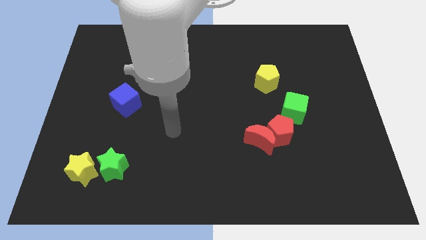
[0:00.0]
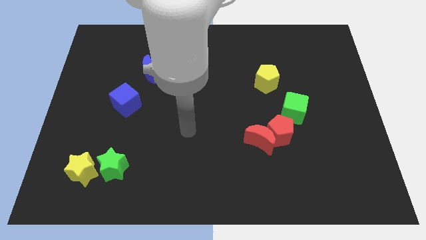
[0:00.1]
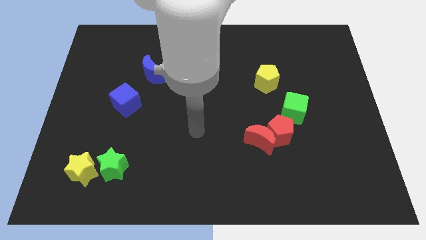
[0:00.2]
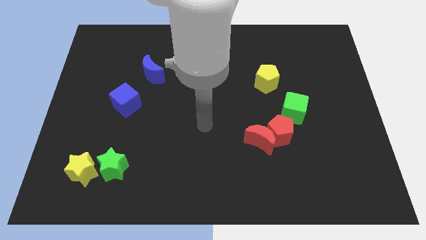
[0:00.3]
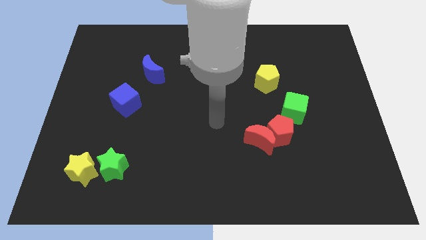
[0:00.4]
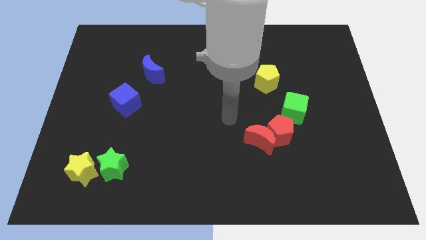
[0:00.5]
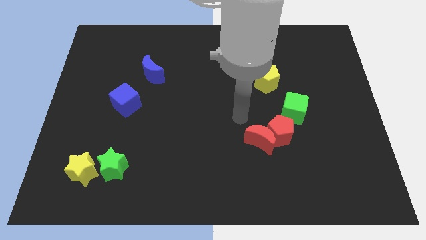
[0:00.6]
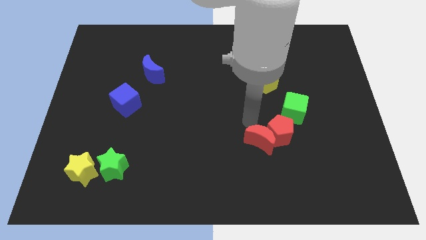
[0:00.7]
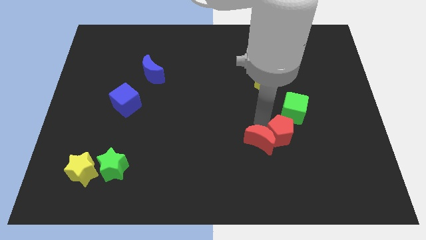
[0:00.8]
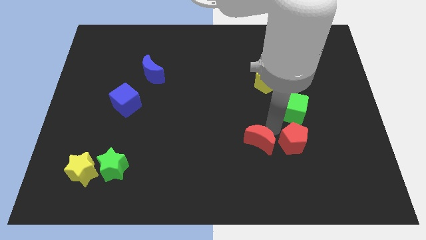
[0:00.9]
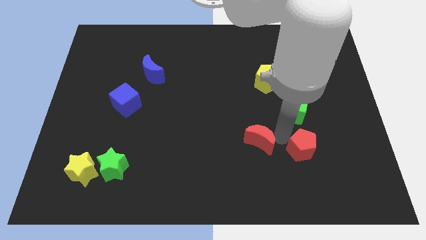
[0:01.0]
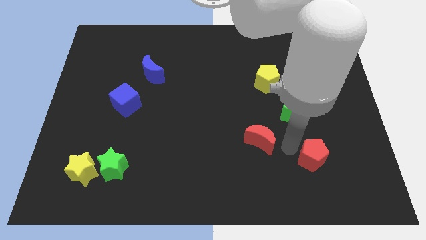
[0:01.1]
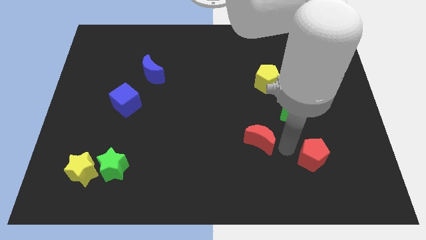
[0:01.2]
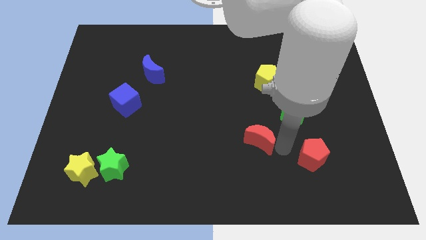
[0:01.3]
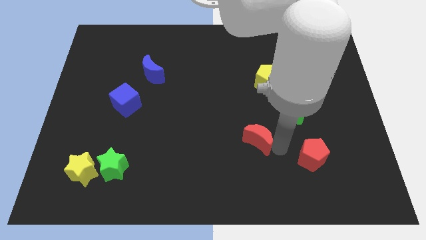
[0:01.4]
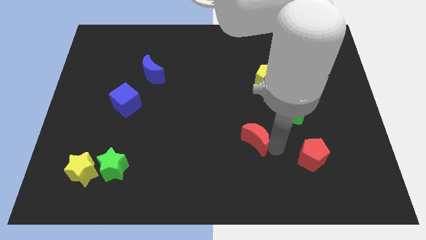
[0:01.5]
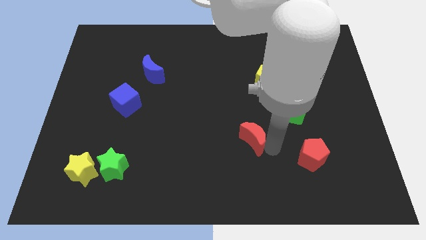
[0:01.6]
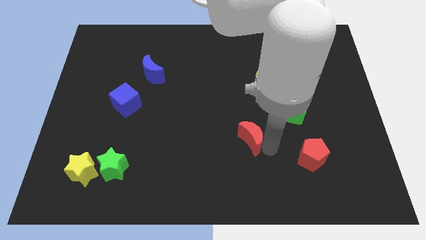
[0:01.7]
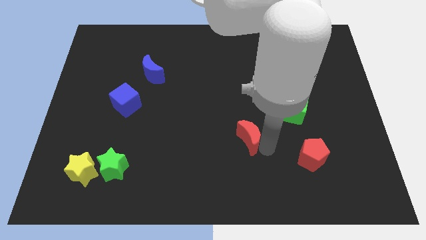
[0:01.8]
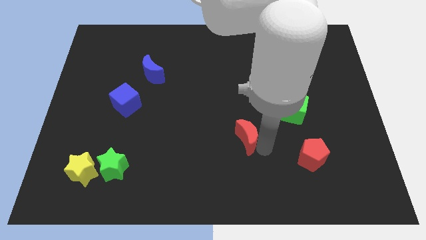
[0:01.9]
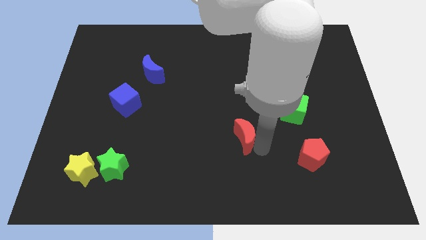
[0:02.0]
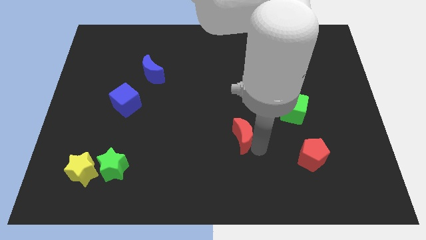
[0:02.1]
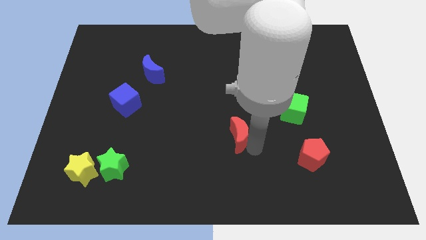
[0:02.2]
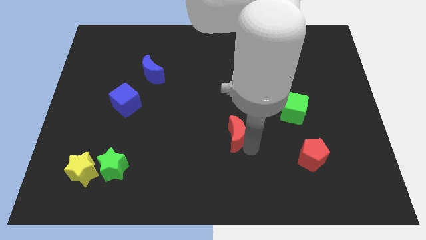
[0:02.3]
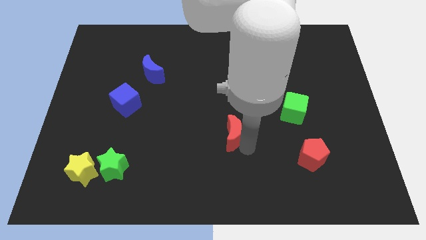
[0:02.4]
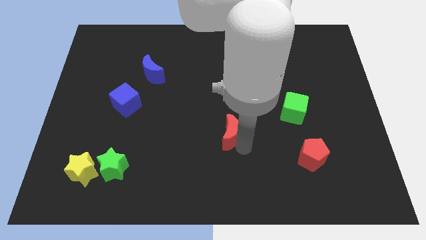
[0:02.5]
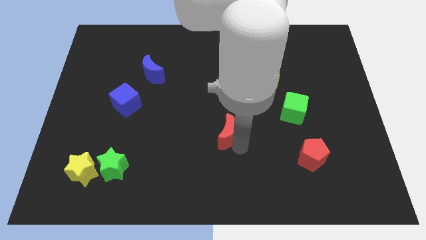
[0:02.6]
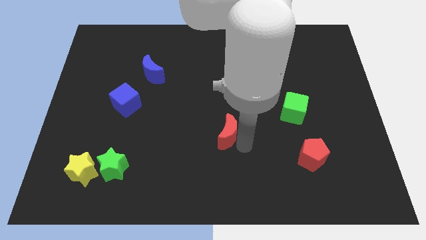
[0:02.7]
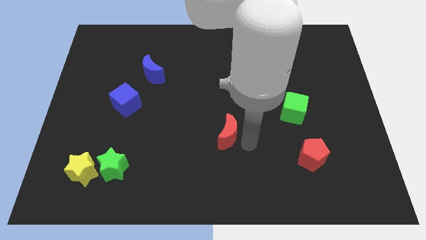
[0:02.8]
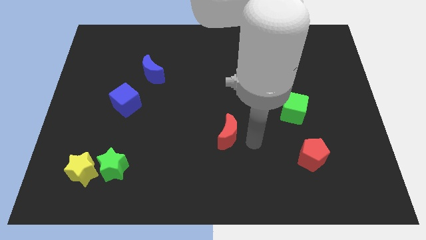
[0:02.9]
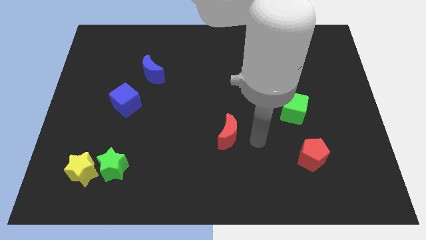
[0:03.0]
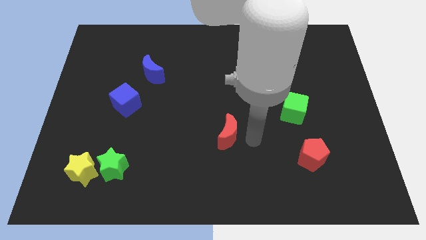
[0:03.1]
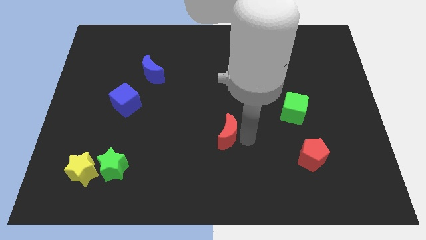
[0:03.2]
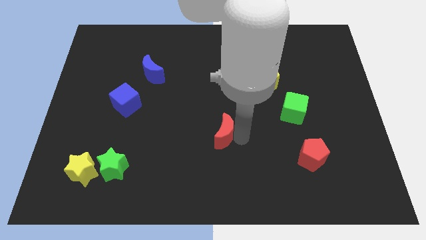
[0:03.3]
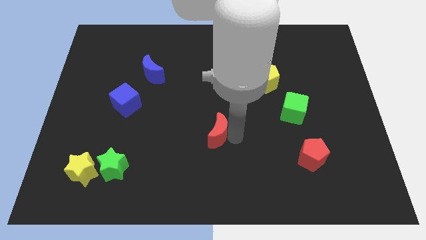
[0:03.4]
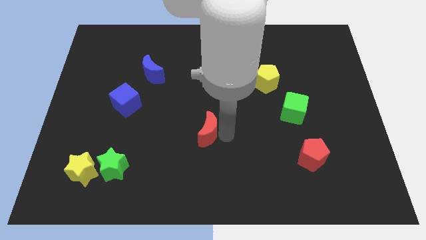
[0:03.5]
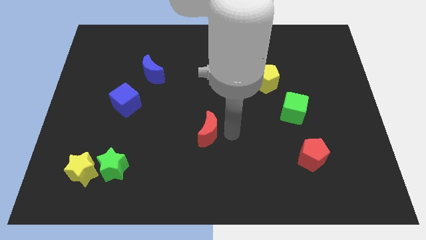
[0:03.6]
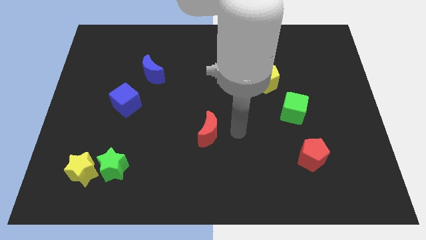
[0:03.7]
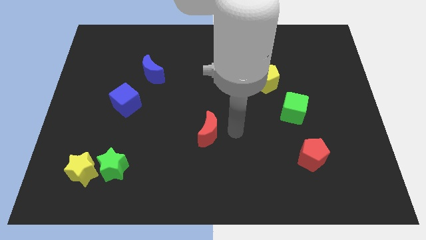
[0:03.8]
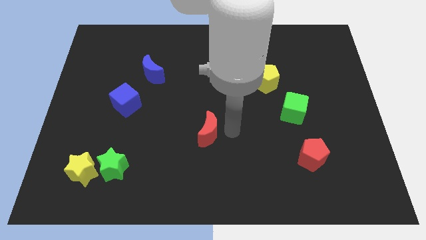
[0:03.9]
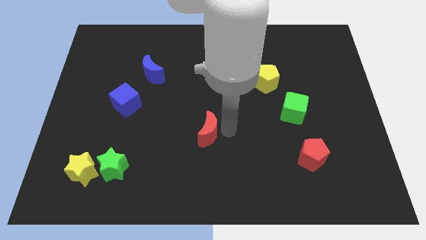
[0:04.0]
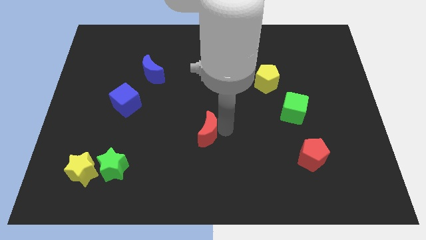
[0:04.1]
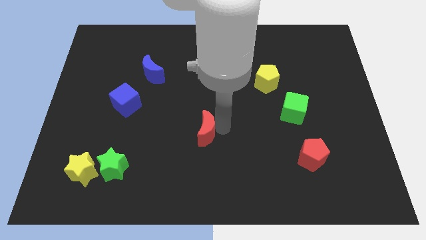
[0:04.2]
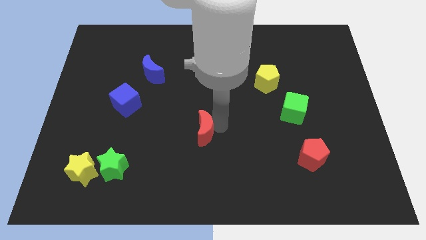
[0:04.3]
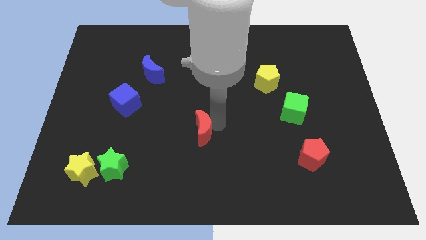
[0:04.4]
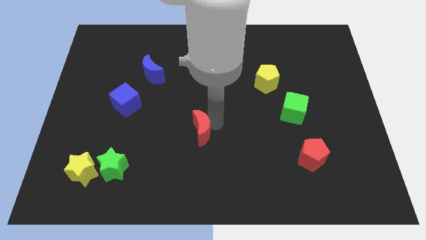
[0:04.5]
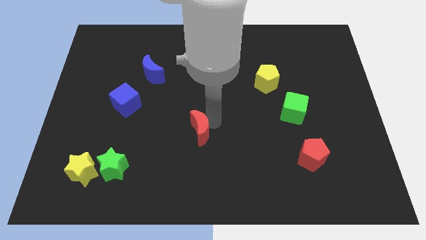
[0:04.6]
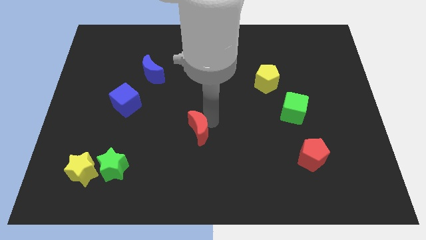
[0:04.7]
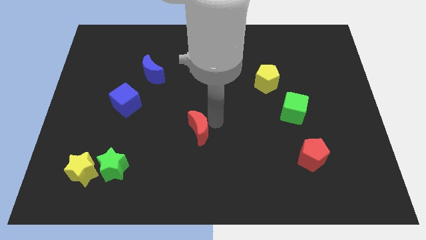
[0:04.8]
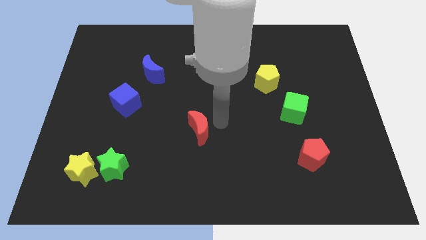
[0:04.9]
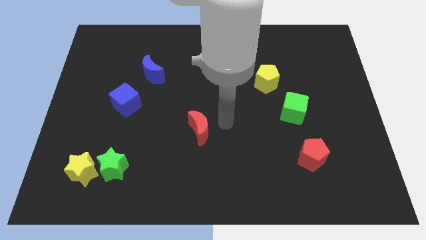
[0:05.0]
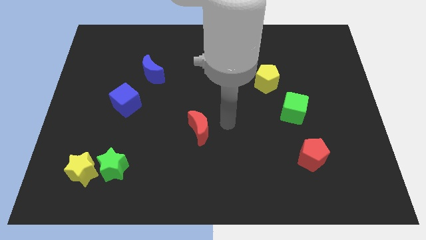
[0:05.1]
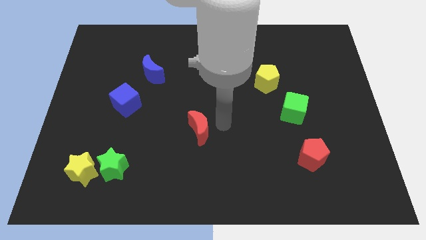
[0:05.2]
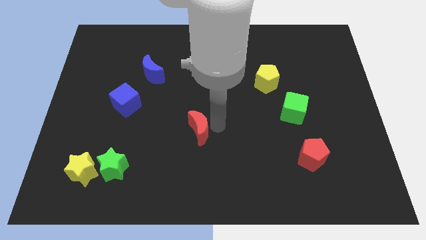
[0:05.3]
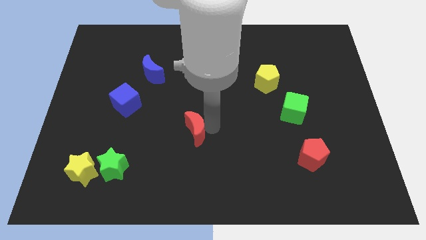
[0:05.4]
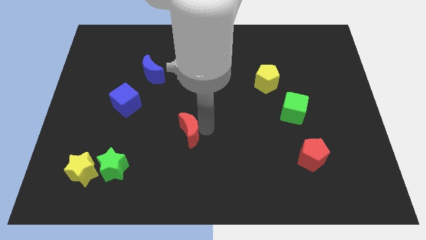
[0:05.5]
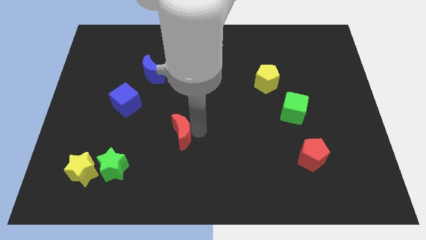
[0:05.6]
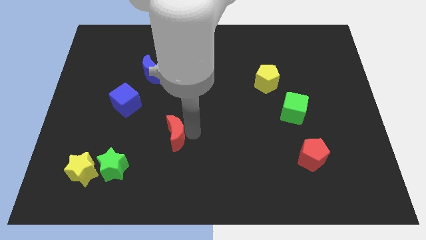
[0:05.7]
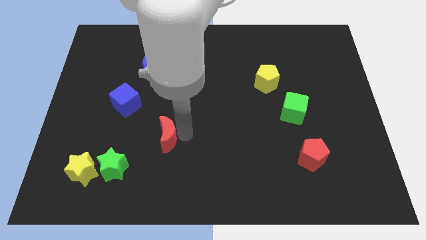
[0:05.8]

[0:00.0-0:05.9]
move the red moon to the left

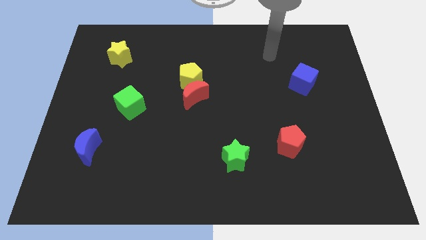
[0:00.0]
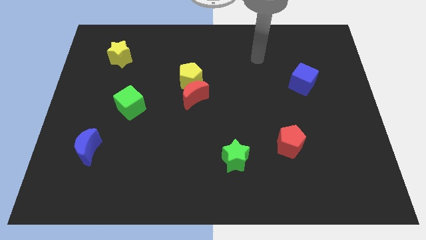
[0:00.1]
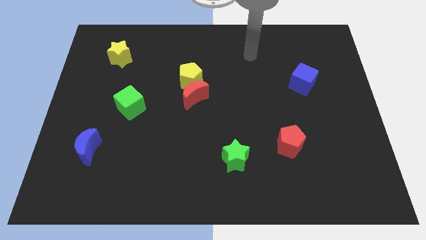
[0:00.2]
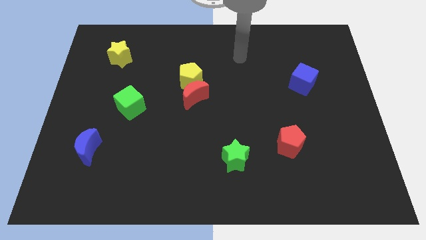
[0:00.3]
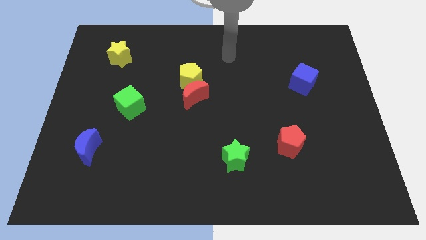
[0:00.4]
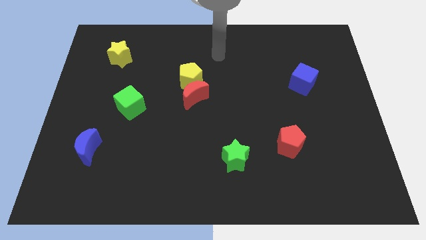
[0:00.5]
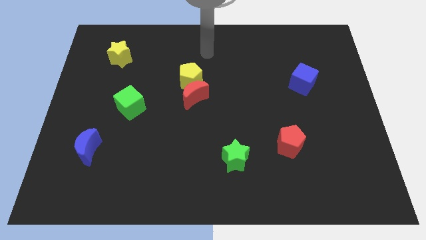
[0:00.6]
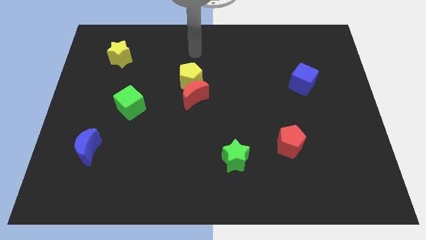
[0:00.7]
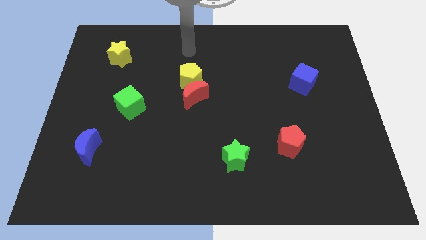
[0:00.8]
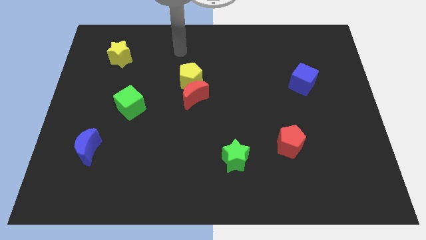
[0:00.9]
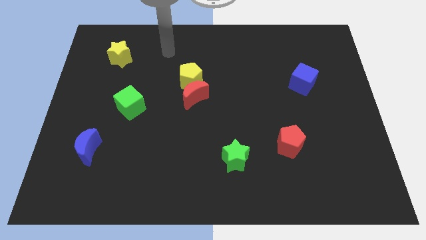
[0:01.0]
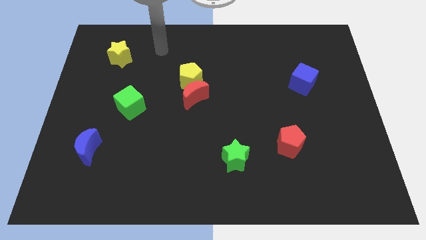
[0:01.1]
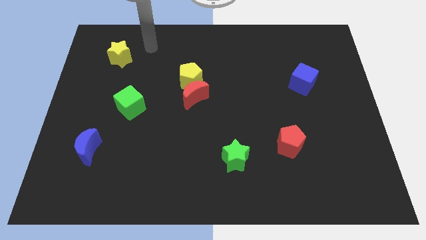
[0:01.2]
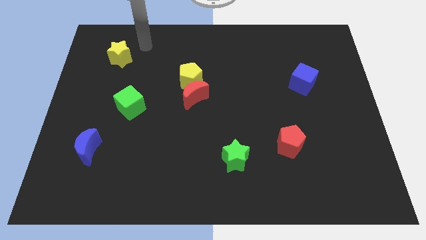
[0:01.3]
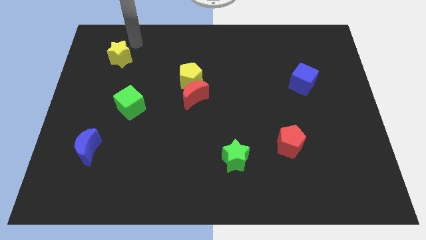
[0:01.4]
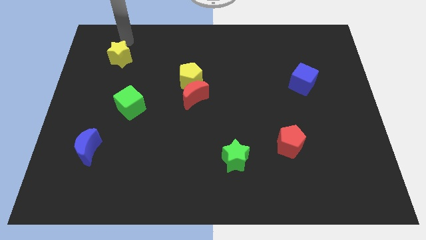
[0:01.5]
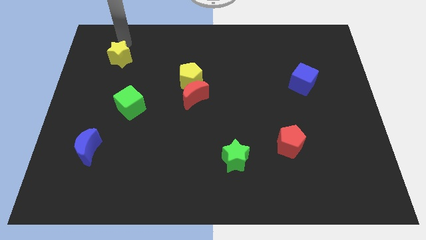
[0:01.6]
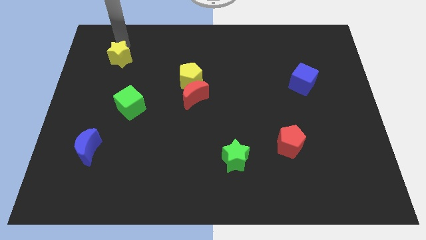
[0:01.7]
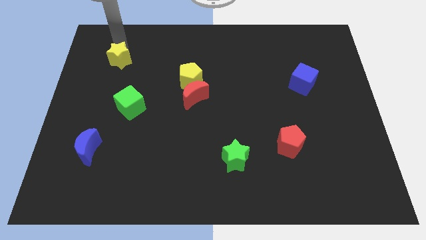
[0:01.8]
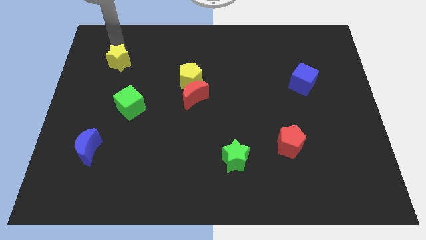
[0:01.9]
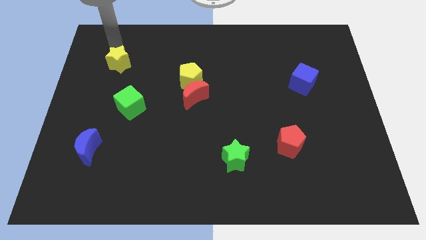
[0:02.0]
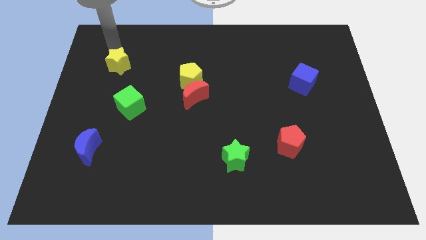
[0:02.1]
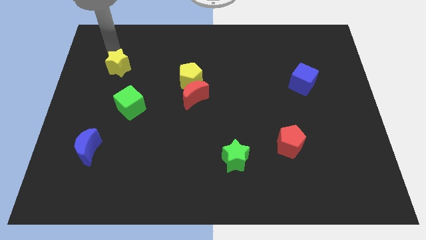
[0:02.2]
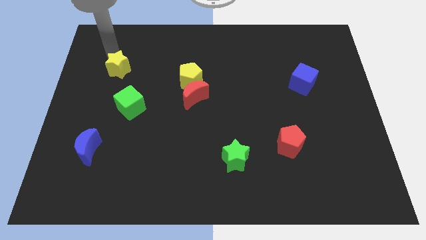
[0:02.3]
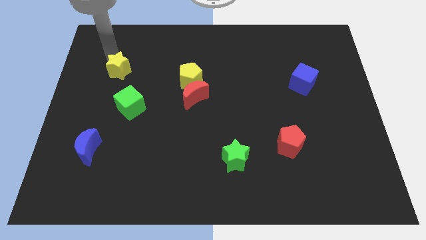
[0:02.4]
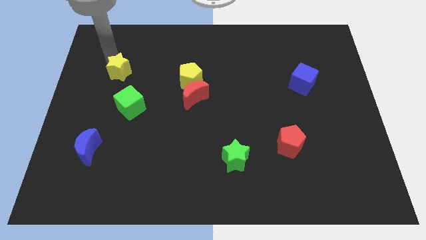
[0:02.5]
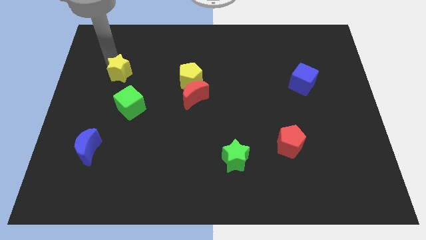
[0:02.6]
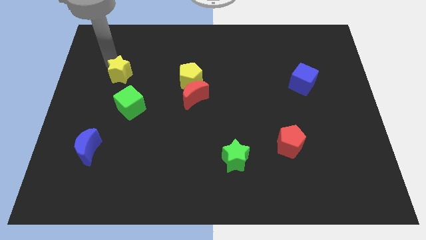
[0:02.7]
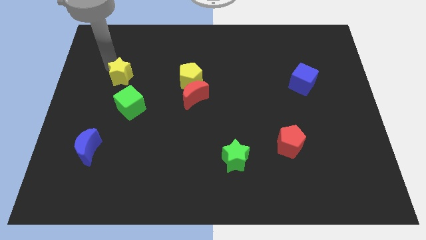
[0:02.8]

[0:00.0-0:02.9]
slightly move the yellow star downwards
